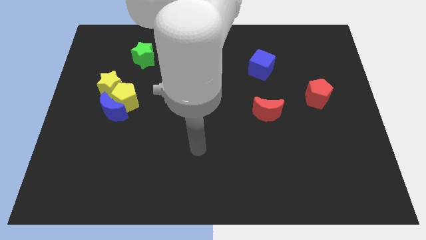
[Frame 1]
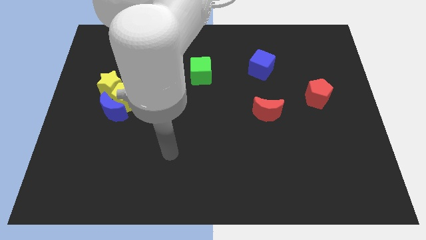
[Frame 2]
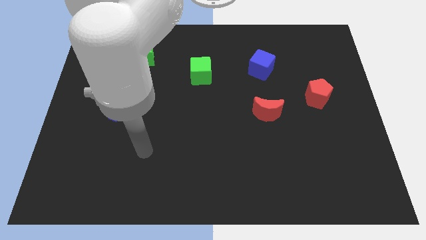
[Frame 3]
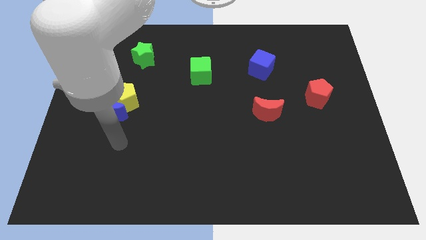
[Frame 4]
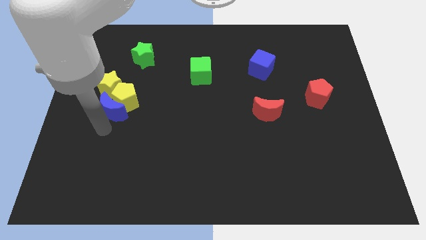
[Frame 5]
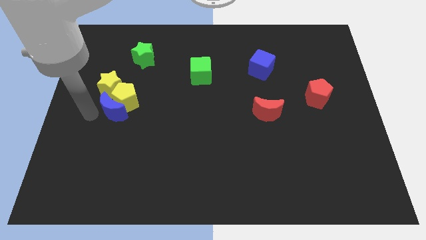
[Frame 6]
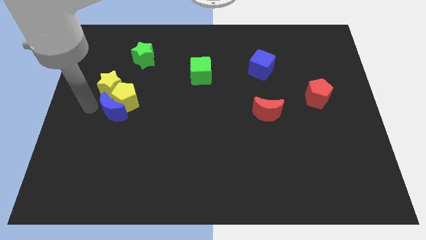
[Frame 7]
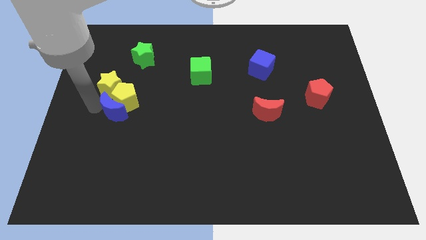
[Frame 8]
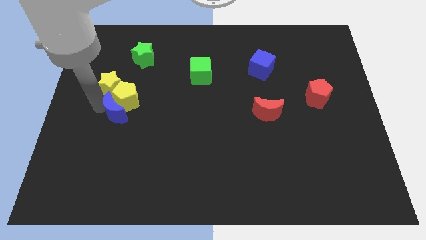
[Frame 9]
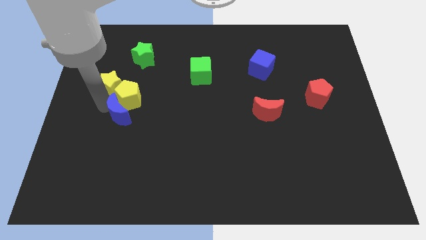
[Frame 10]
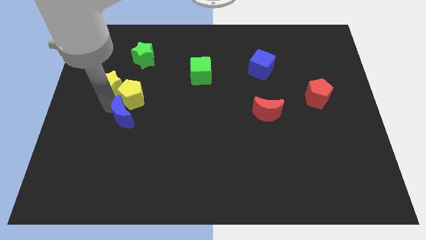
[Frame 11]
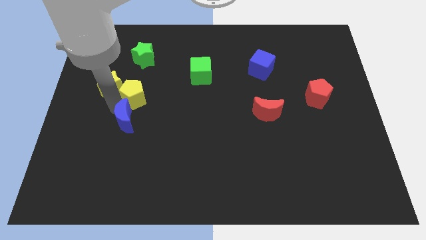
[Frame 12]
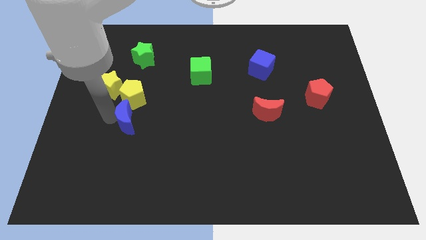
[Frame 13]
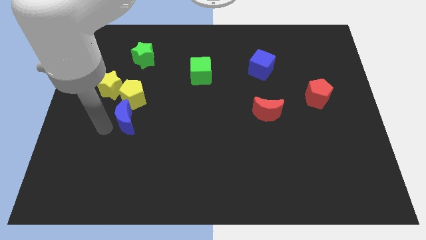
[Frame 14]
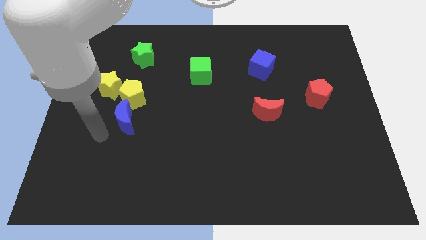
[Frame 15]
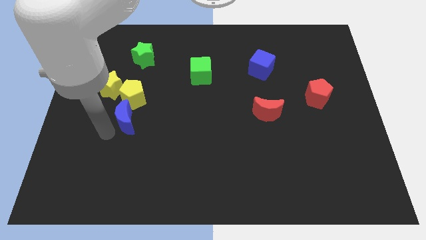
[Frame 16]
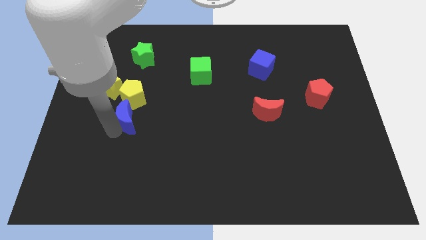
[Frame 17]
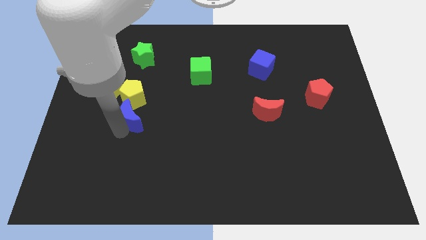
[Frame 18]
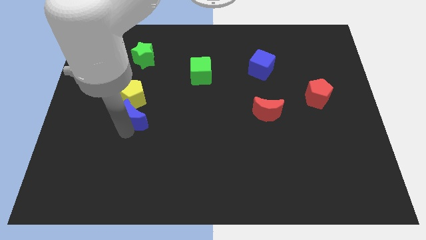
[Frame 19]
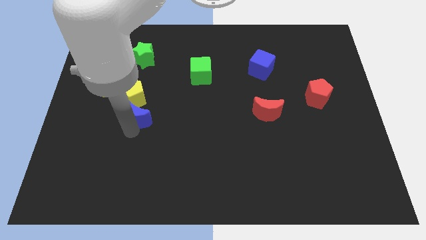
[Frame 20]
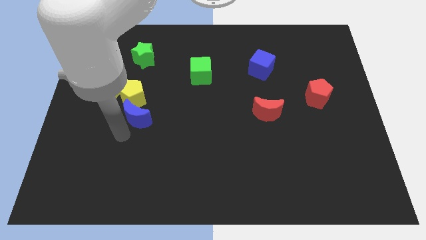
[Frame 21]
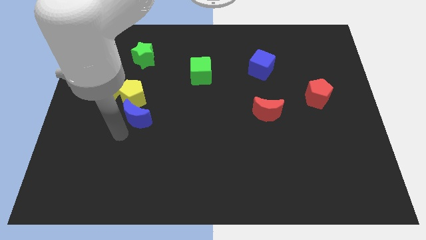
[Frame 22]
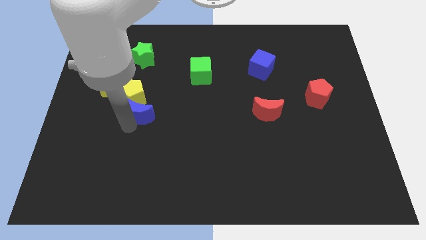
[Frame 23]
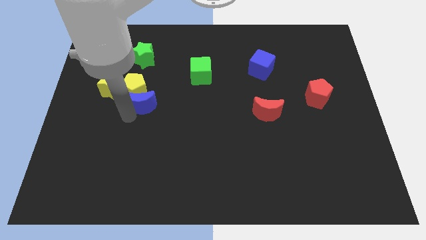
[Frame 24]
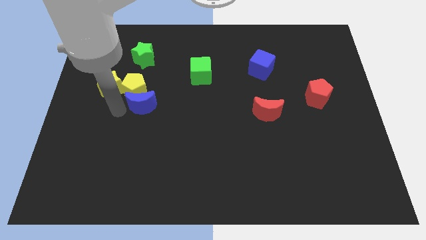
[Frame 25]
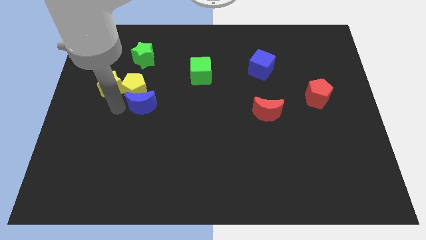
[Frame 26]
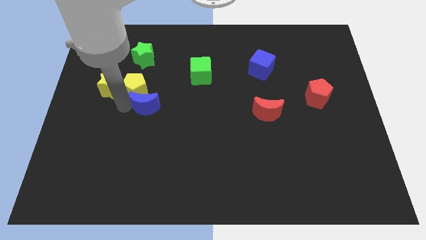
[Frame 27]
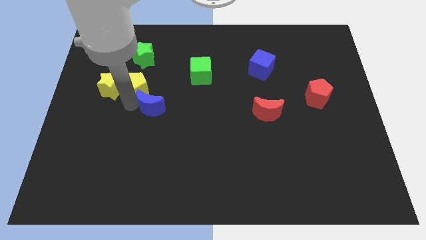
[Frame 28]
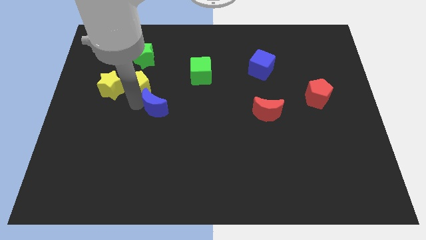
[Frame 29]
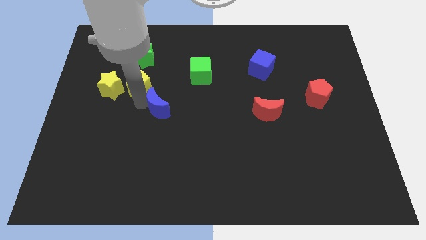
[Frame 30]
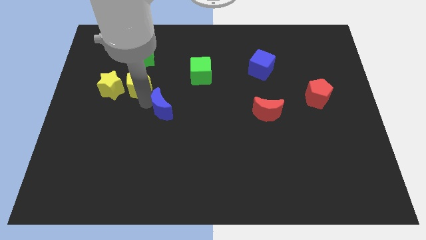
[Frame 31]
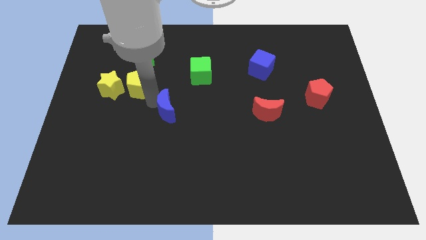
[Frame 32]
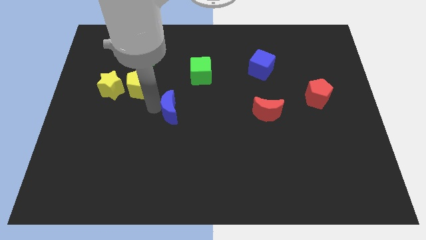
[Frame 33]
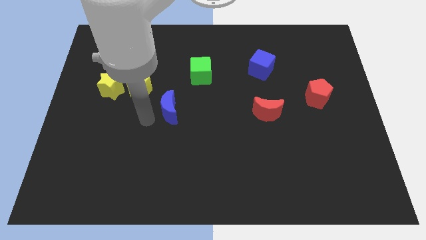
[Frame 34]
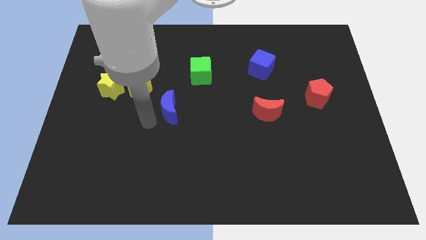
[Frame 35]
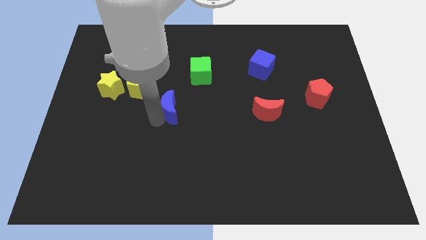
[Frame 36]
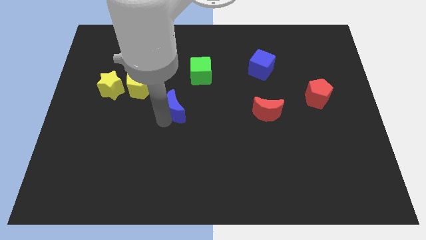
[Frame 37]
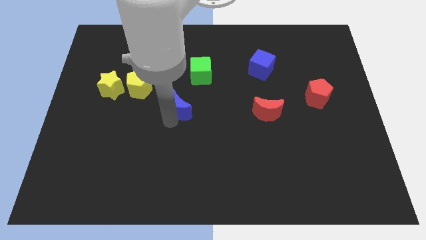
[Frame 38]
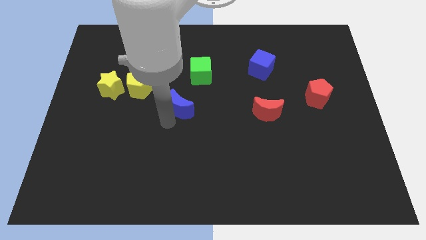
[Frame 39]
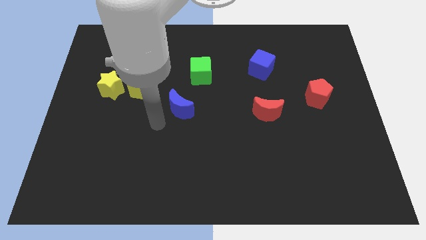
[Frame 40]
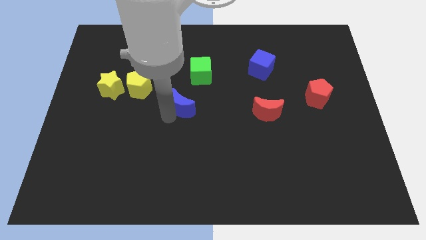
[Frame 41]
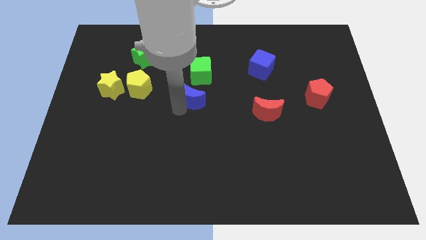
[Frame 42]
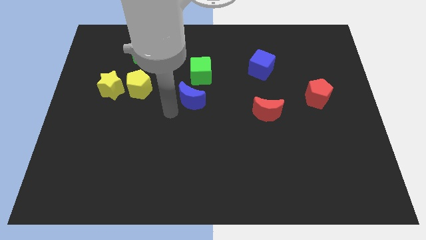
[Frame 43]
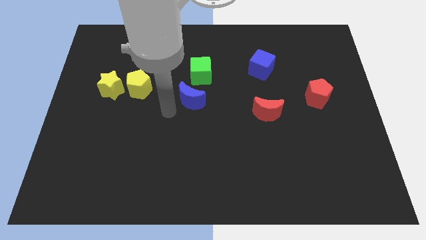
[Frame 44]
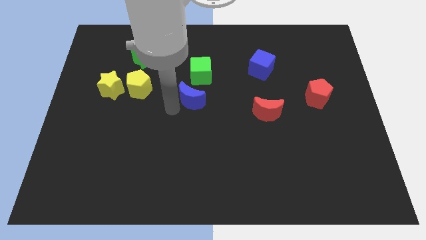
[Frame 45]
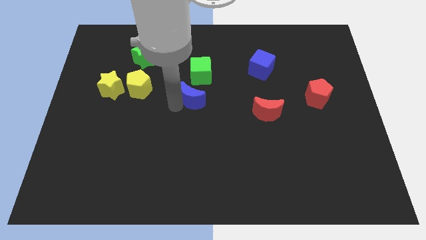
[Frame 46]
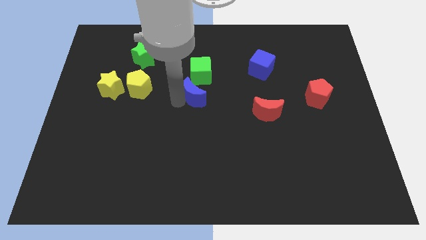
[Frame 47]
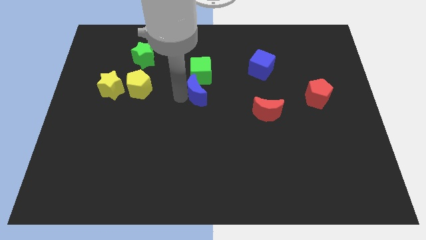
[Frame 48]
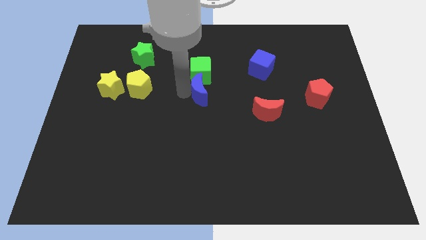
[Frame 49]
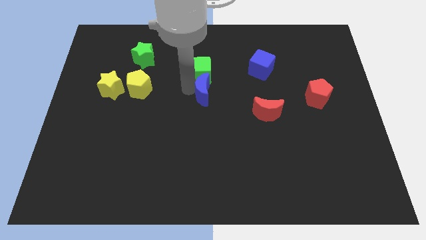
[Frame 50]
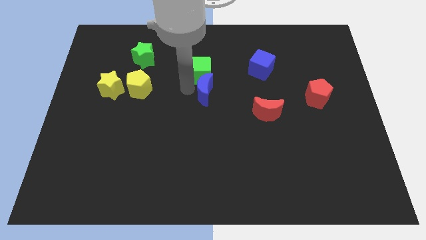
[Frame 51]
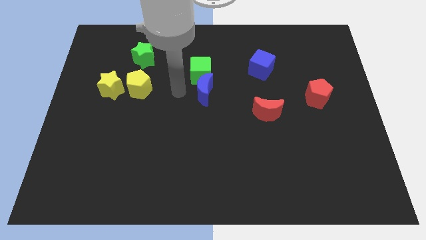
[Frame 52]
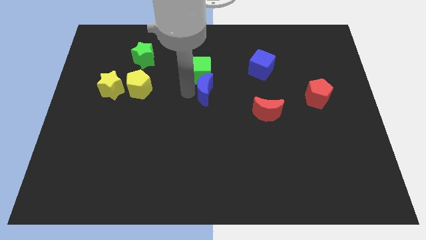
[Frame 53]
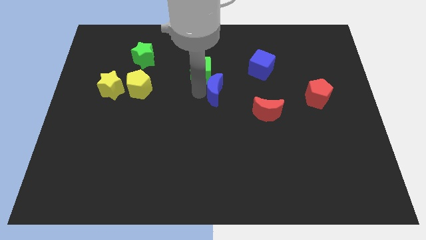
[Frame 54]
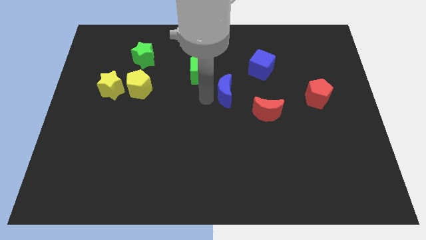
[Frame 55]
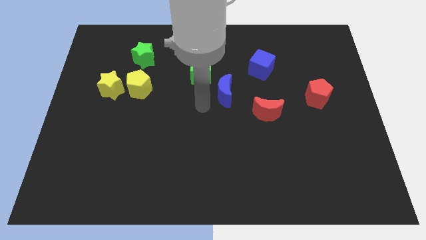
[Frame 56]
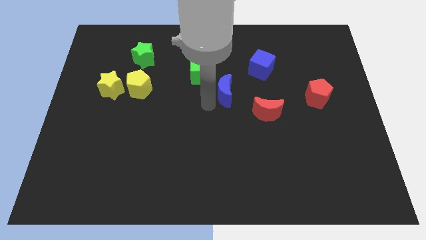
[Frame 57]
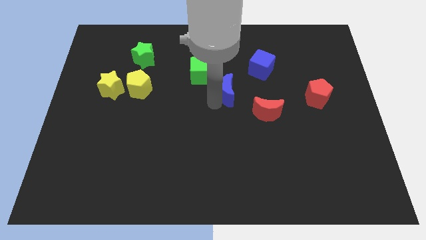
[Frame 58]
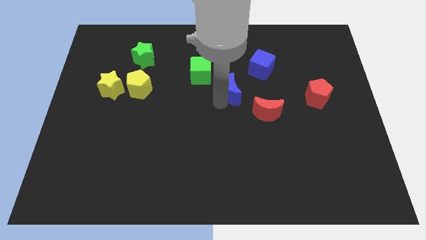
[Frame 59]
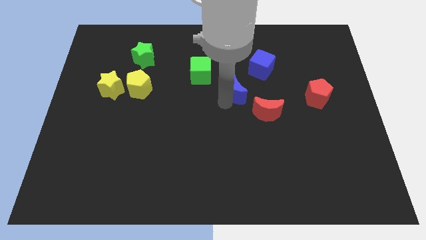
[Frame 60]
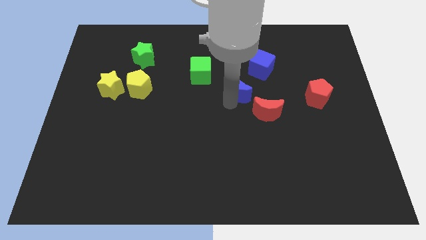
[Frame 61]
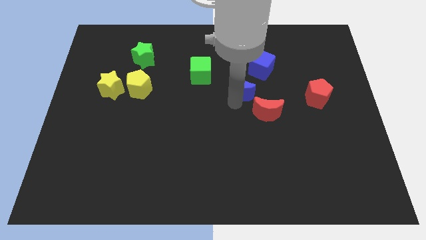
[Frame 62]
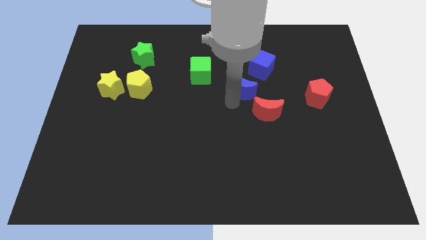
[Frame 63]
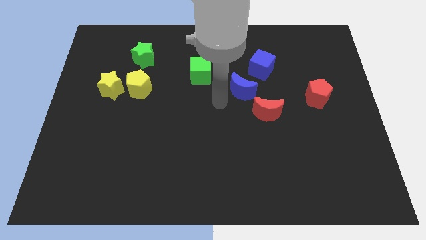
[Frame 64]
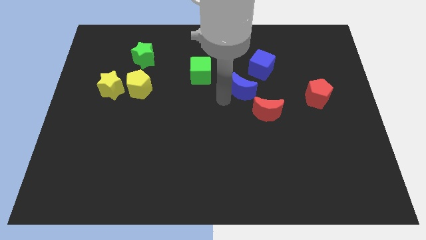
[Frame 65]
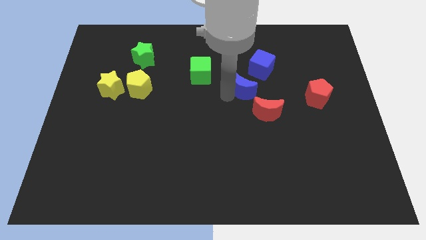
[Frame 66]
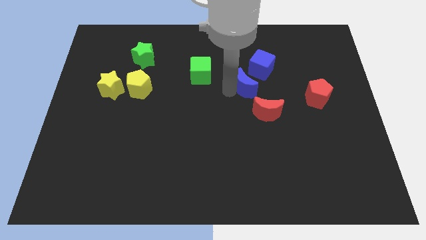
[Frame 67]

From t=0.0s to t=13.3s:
move the blue moon to the top side of the red moon

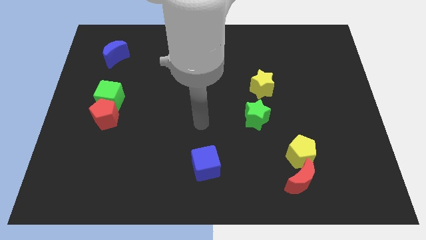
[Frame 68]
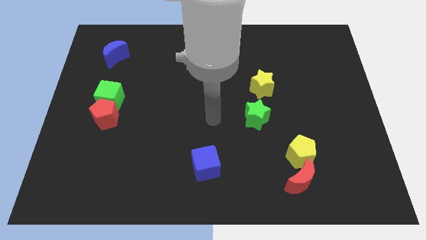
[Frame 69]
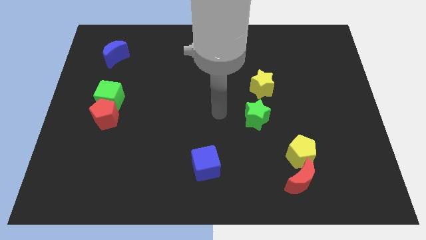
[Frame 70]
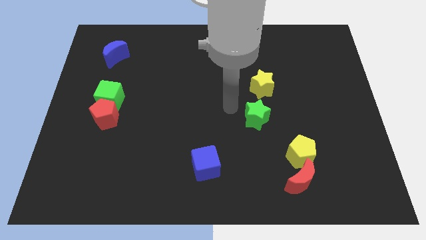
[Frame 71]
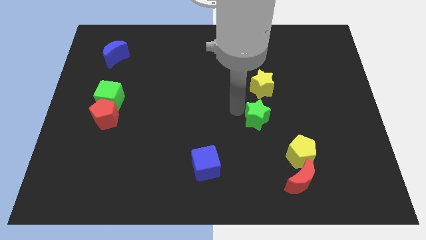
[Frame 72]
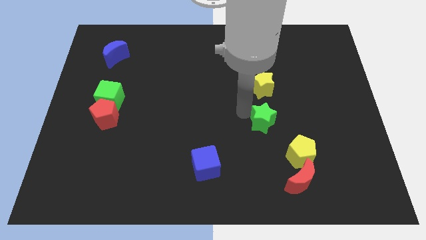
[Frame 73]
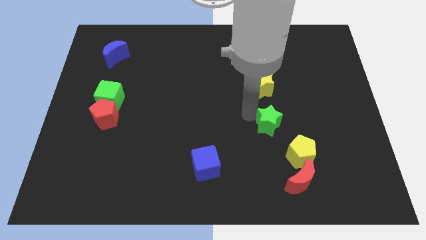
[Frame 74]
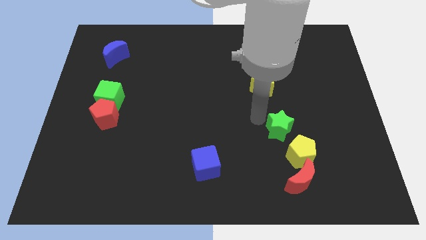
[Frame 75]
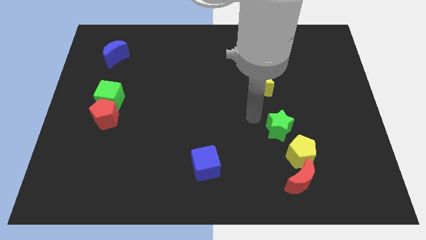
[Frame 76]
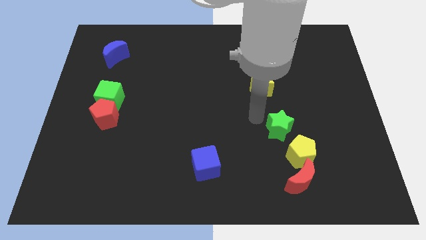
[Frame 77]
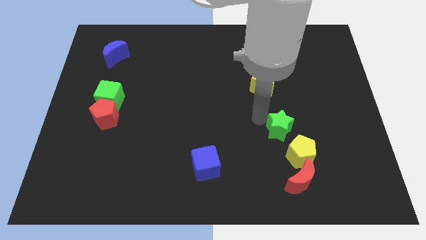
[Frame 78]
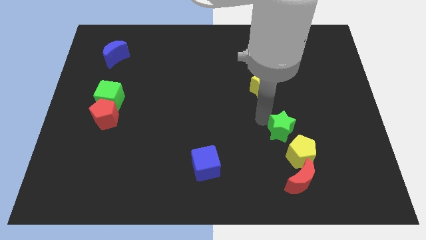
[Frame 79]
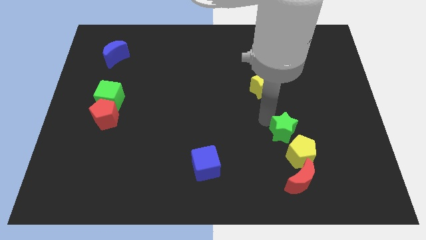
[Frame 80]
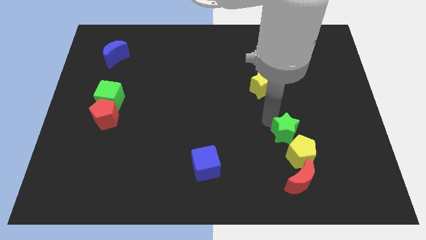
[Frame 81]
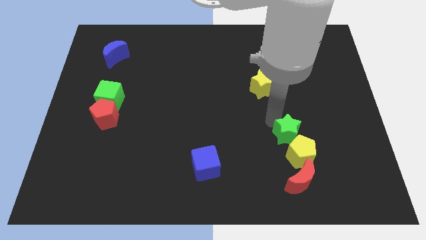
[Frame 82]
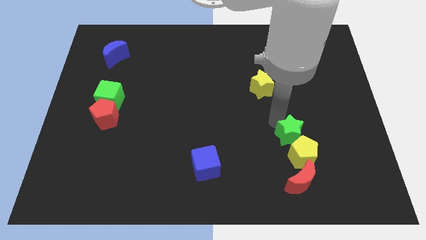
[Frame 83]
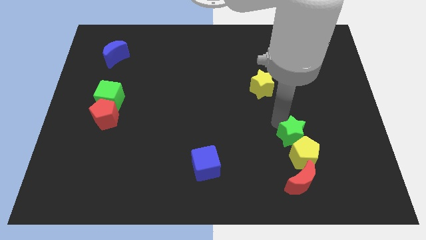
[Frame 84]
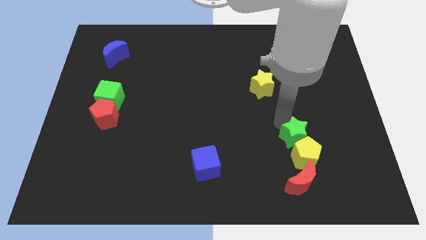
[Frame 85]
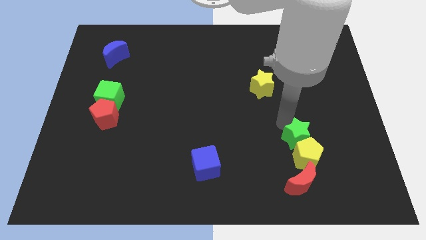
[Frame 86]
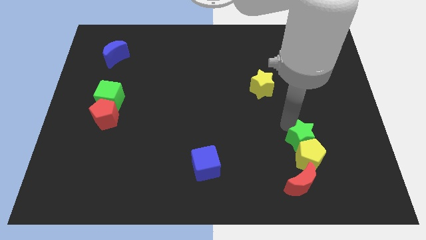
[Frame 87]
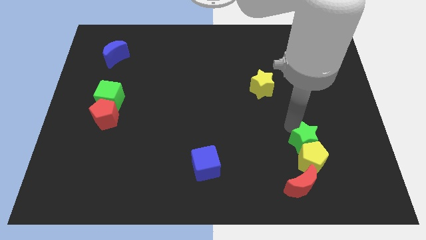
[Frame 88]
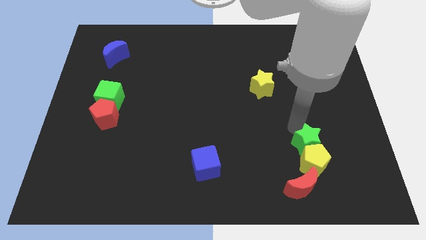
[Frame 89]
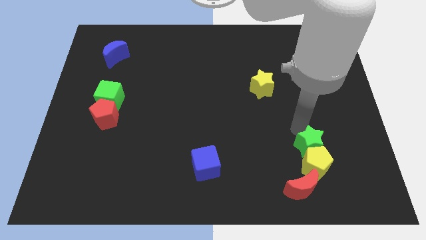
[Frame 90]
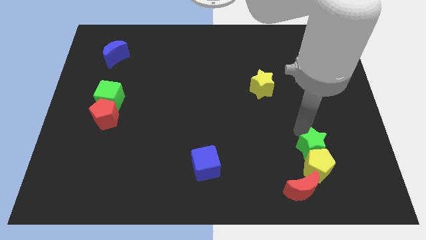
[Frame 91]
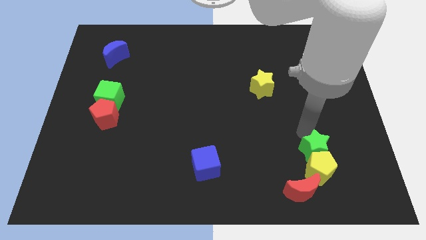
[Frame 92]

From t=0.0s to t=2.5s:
push the green star to the top right of the red moon
